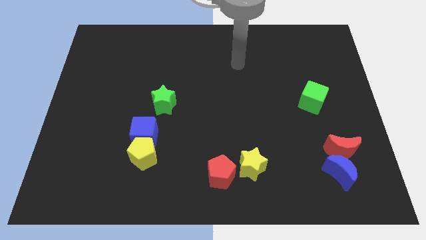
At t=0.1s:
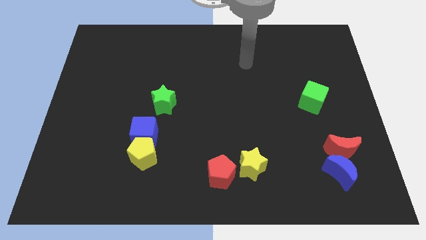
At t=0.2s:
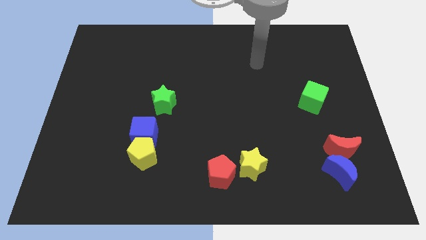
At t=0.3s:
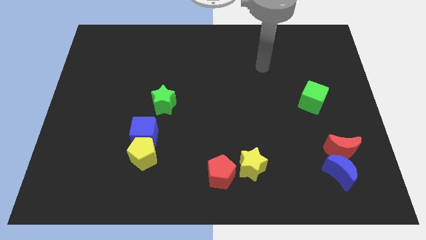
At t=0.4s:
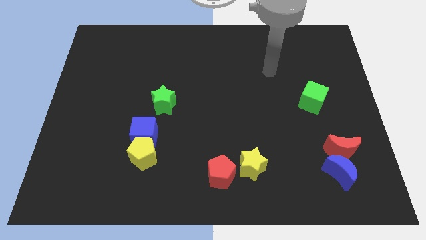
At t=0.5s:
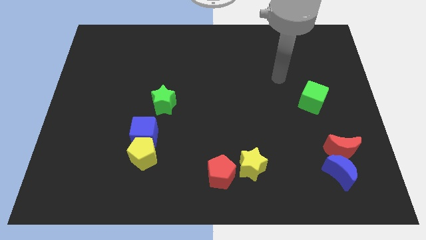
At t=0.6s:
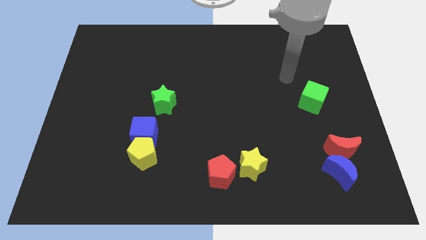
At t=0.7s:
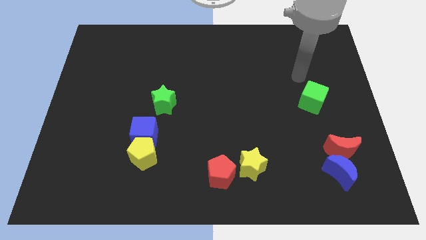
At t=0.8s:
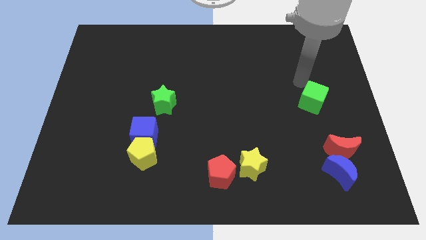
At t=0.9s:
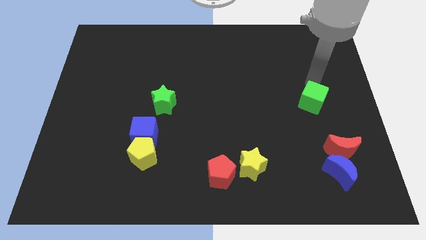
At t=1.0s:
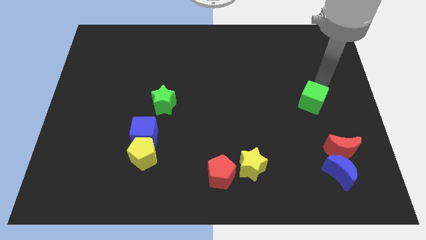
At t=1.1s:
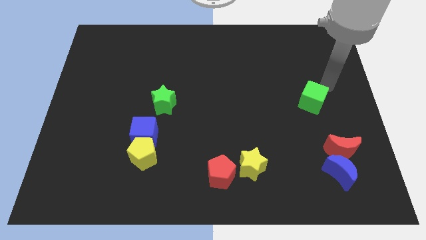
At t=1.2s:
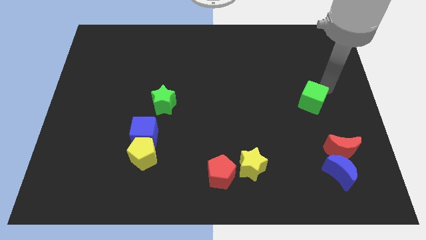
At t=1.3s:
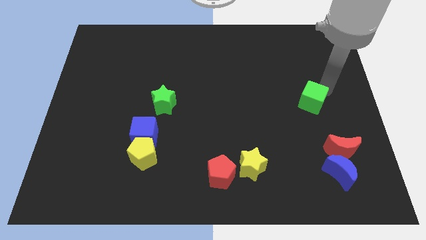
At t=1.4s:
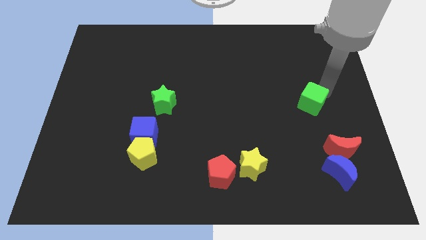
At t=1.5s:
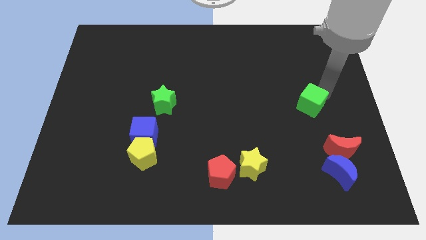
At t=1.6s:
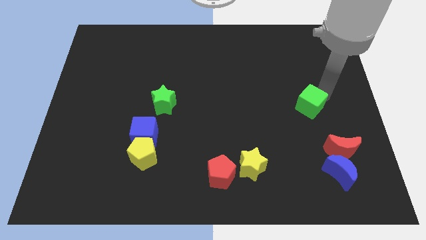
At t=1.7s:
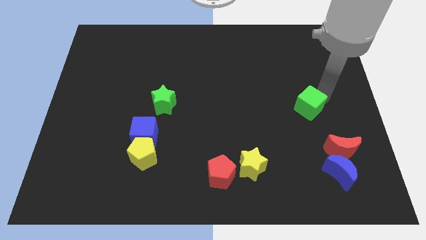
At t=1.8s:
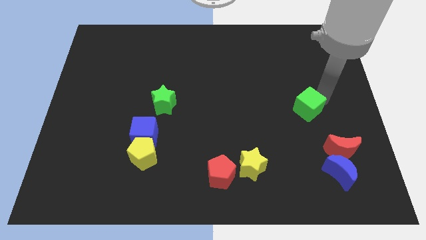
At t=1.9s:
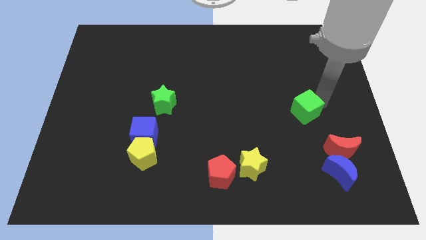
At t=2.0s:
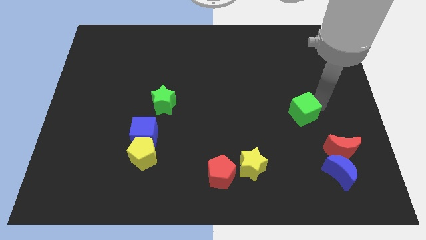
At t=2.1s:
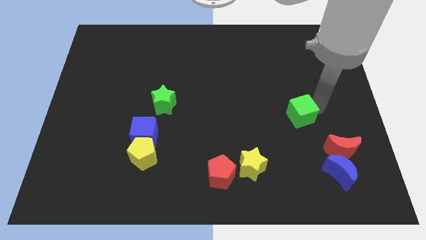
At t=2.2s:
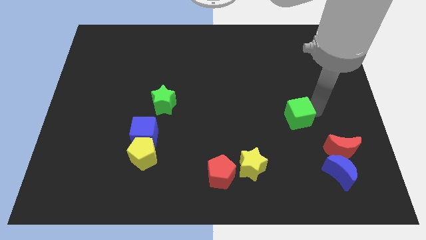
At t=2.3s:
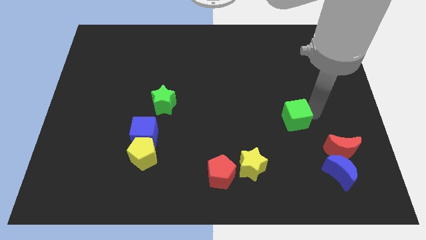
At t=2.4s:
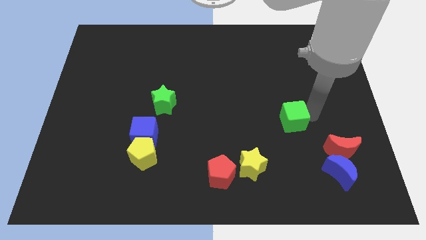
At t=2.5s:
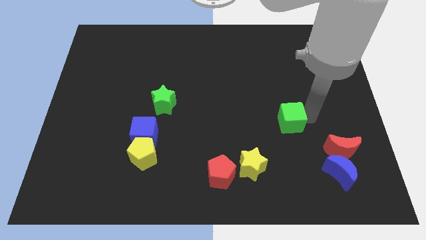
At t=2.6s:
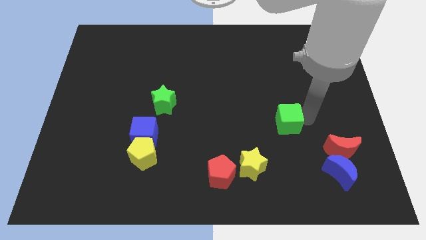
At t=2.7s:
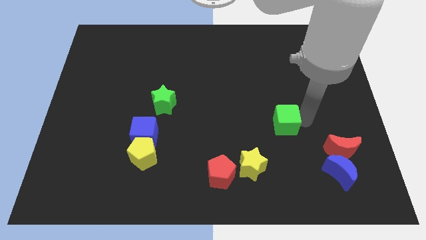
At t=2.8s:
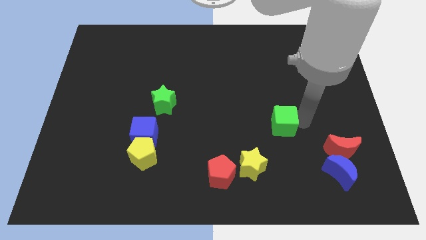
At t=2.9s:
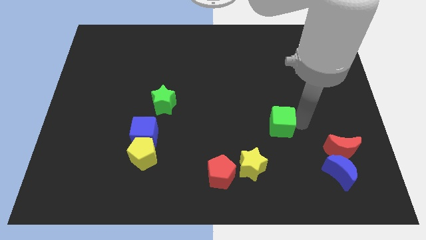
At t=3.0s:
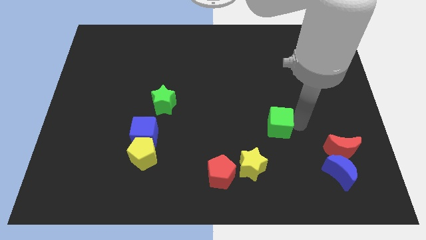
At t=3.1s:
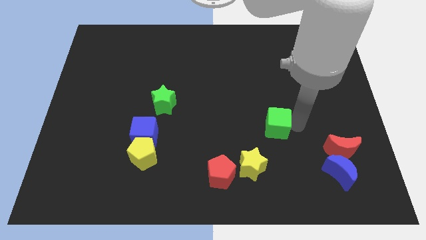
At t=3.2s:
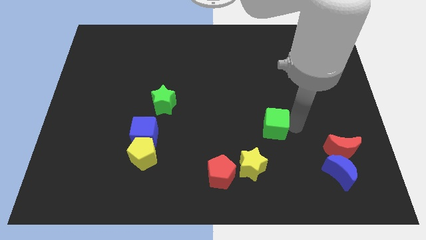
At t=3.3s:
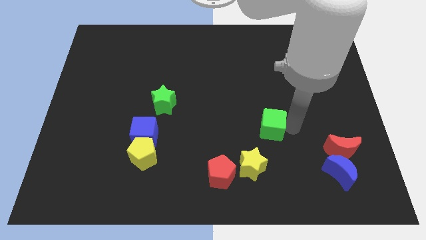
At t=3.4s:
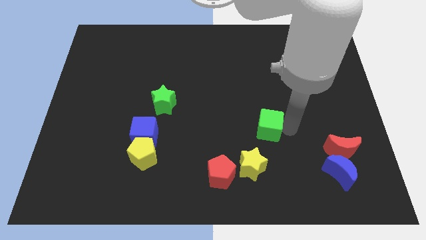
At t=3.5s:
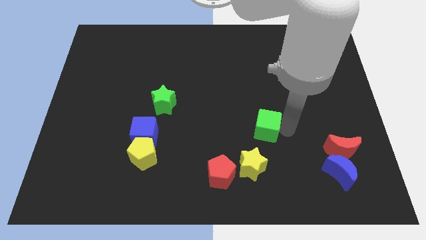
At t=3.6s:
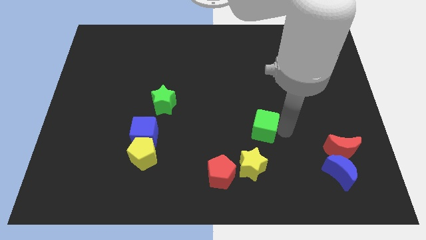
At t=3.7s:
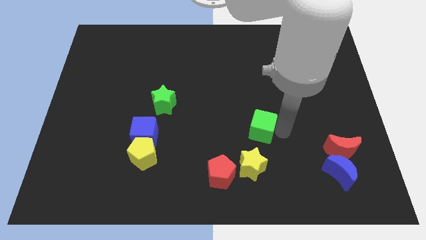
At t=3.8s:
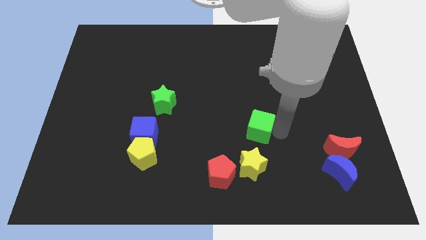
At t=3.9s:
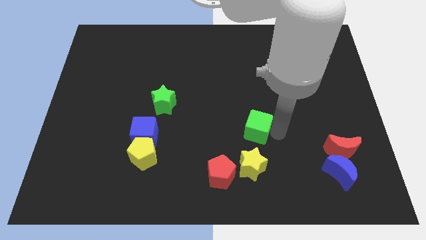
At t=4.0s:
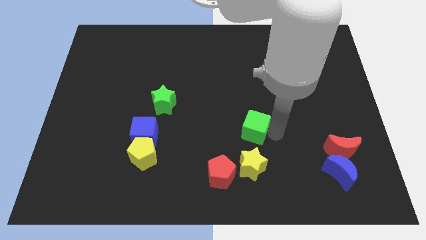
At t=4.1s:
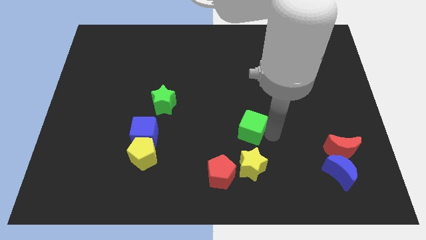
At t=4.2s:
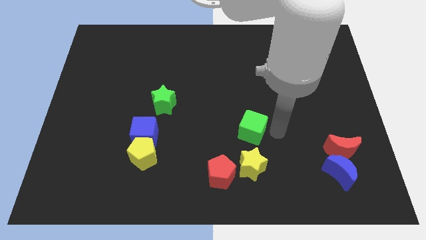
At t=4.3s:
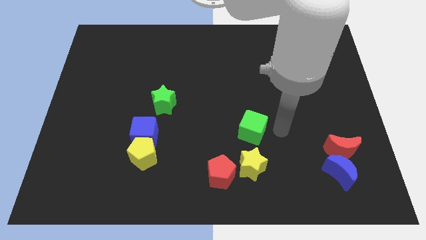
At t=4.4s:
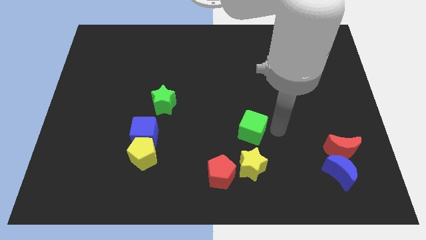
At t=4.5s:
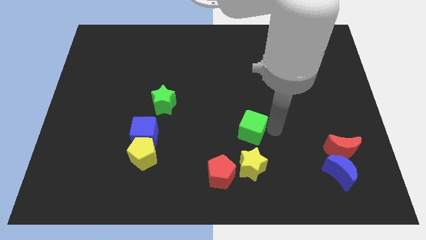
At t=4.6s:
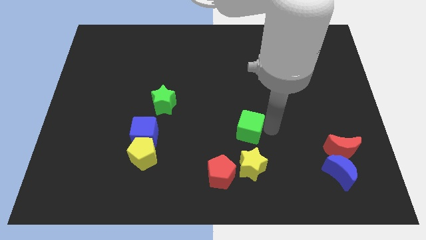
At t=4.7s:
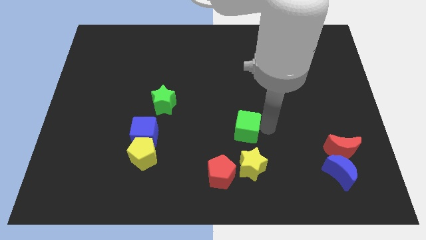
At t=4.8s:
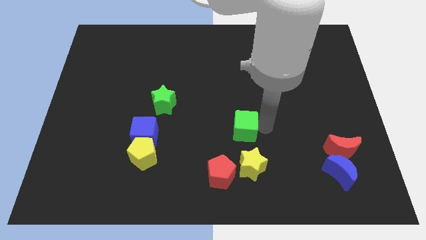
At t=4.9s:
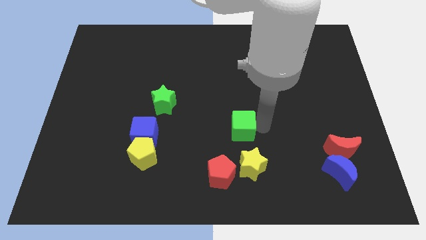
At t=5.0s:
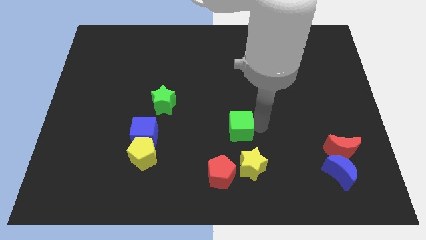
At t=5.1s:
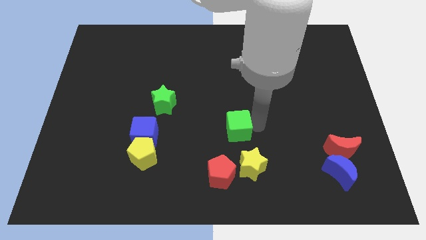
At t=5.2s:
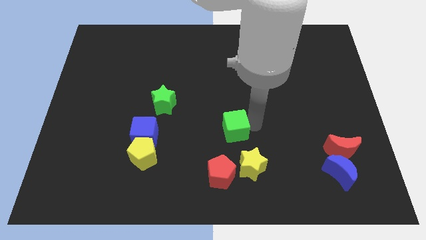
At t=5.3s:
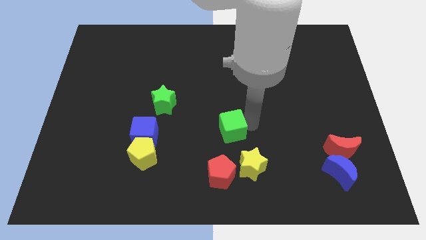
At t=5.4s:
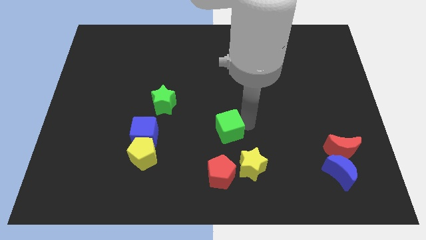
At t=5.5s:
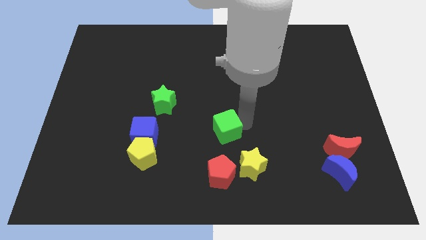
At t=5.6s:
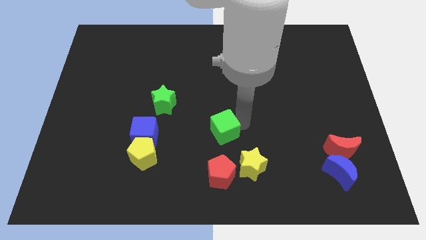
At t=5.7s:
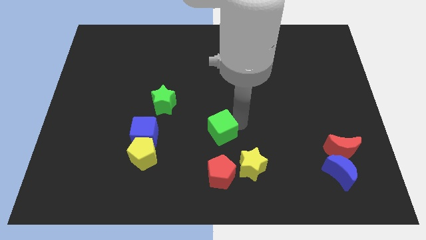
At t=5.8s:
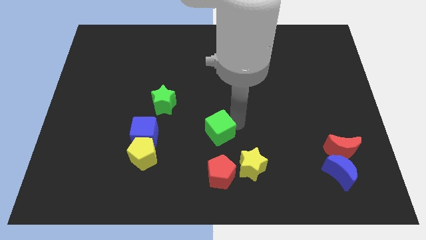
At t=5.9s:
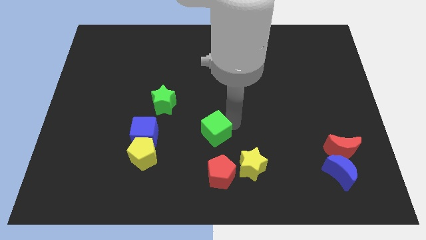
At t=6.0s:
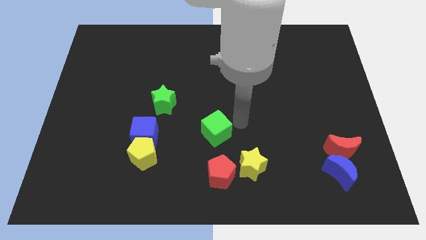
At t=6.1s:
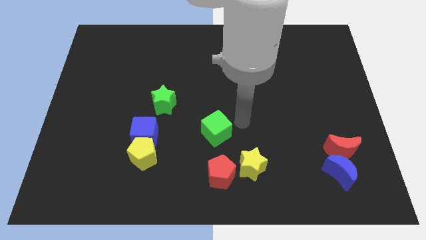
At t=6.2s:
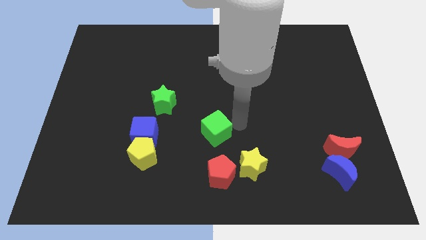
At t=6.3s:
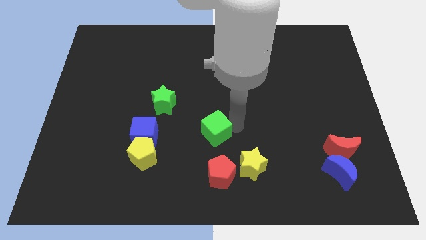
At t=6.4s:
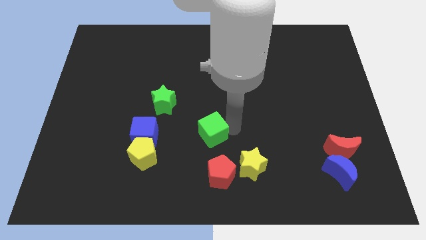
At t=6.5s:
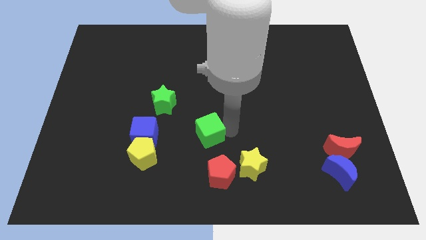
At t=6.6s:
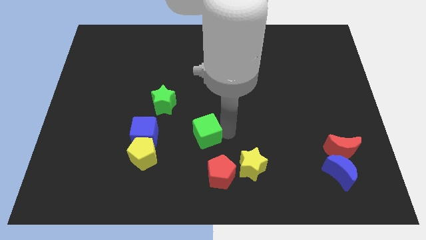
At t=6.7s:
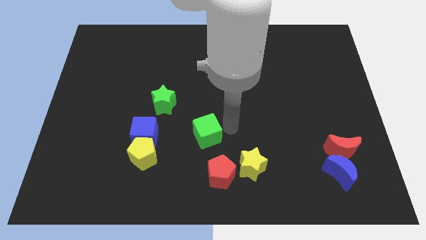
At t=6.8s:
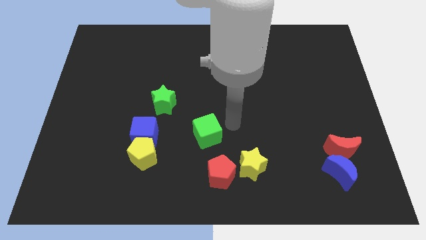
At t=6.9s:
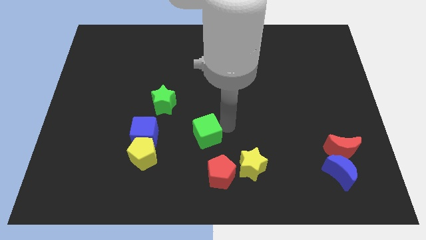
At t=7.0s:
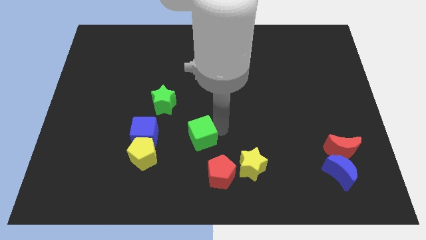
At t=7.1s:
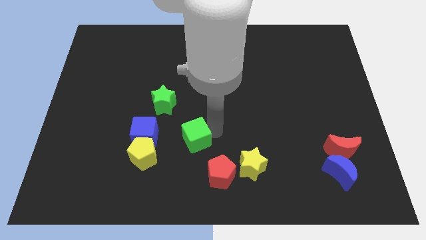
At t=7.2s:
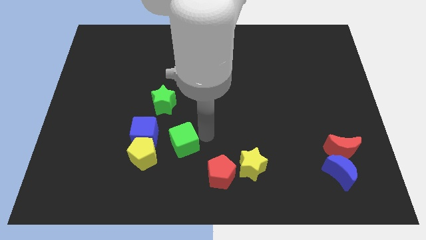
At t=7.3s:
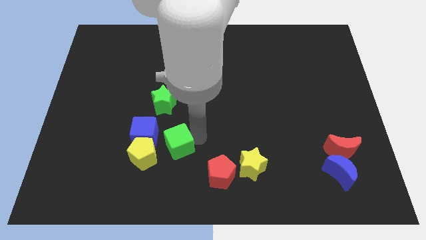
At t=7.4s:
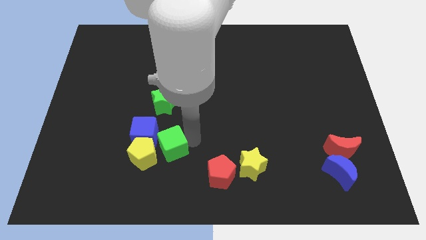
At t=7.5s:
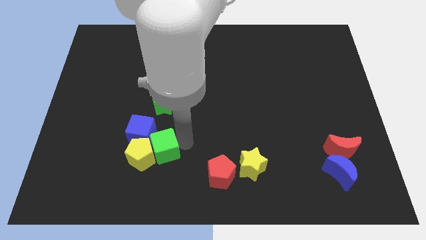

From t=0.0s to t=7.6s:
move the green cube to the yellow pentagon
